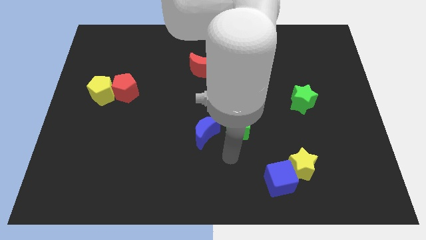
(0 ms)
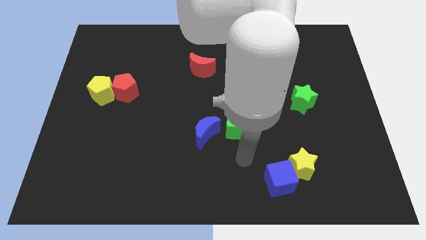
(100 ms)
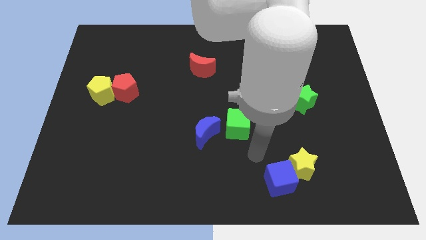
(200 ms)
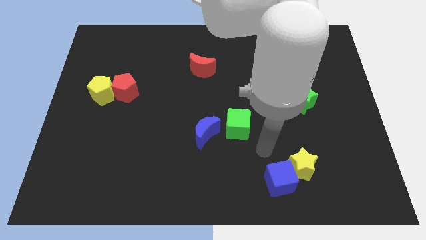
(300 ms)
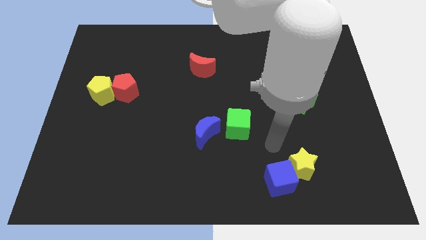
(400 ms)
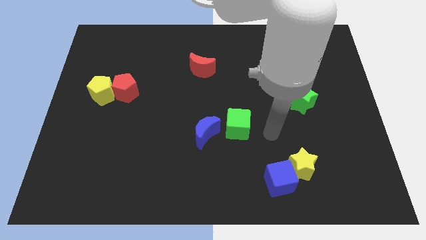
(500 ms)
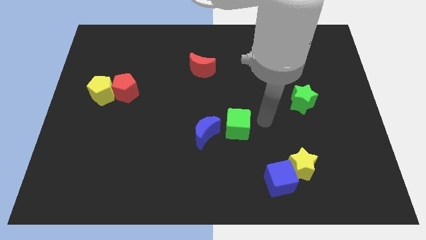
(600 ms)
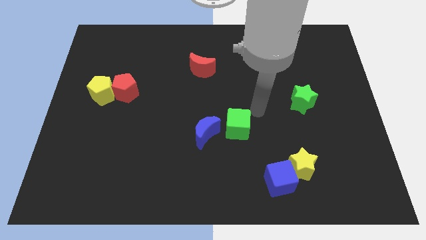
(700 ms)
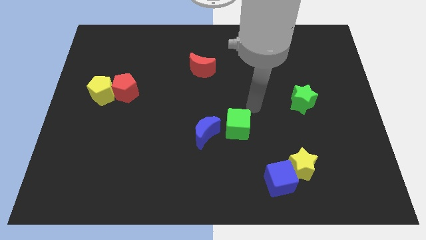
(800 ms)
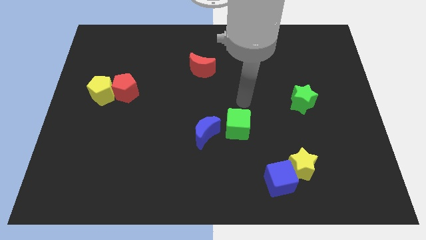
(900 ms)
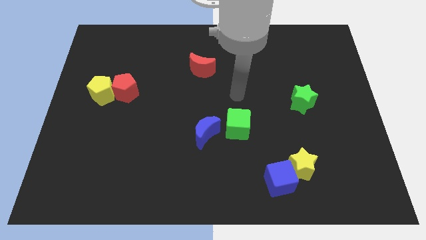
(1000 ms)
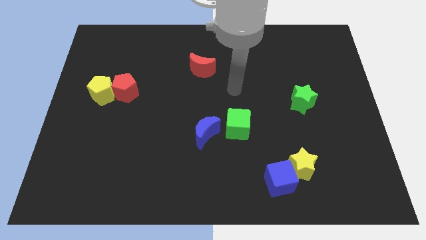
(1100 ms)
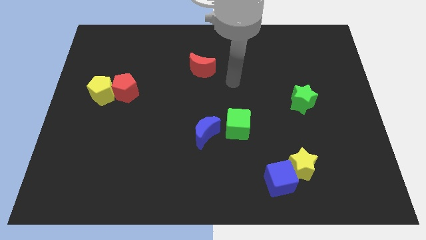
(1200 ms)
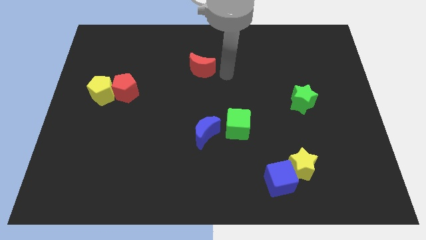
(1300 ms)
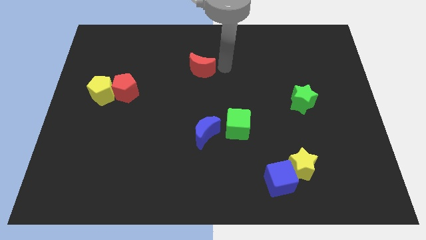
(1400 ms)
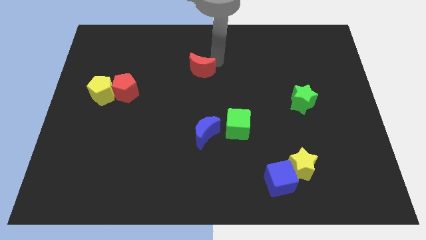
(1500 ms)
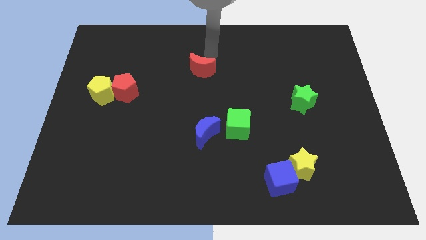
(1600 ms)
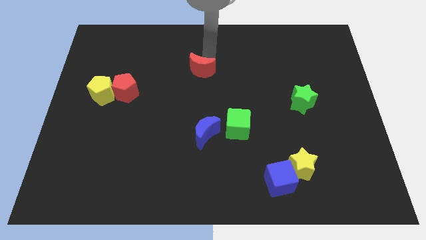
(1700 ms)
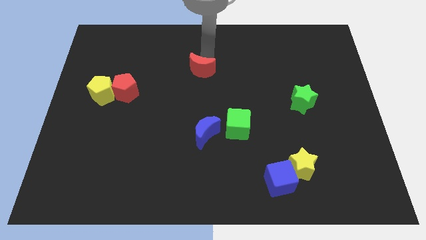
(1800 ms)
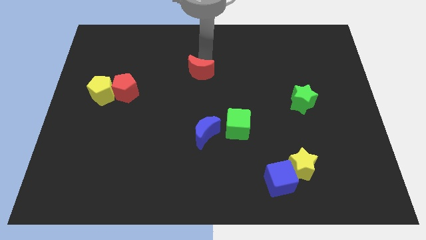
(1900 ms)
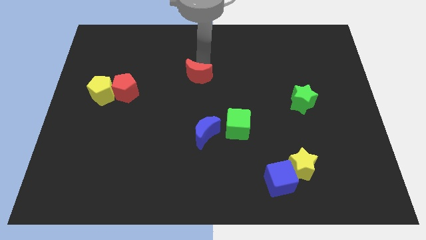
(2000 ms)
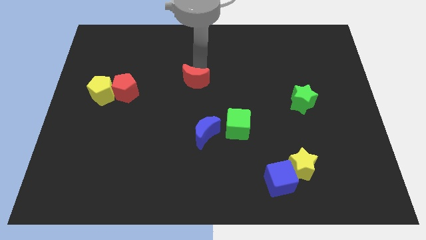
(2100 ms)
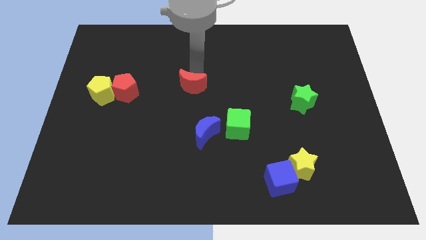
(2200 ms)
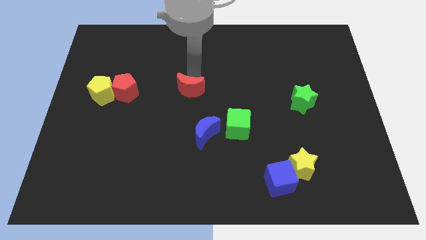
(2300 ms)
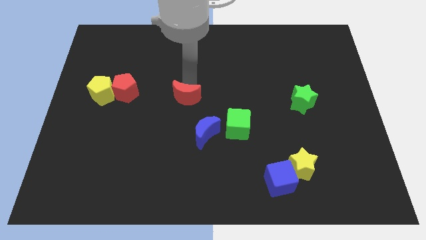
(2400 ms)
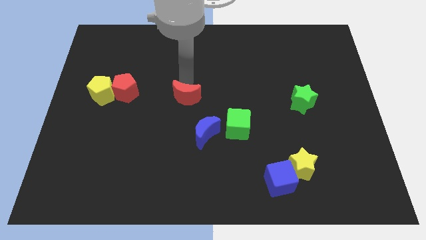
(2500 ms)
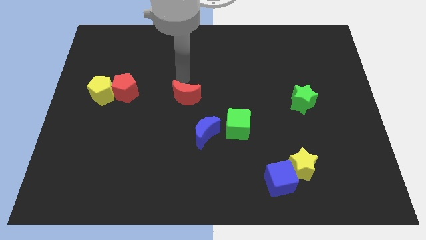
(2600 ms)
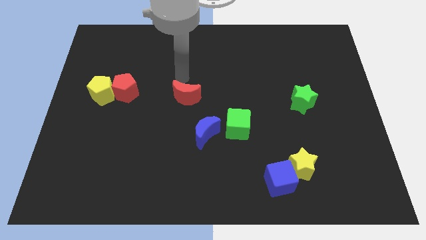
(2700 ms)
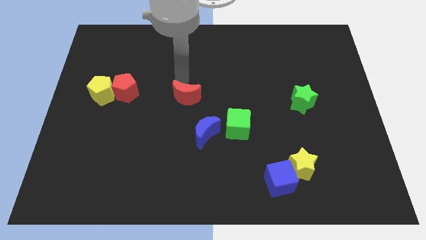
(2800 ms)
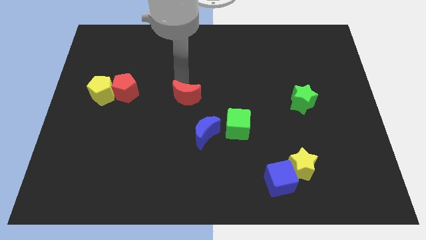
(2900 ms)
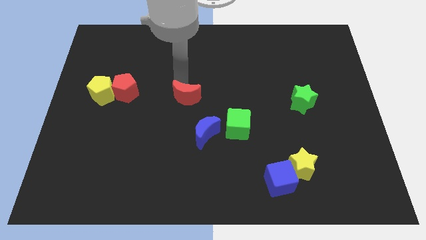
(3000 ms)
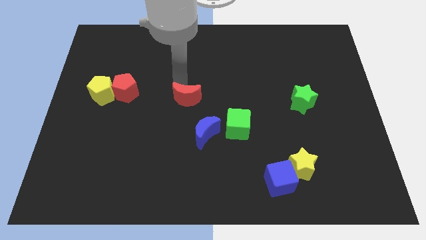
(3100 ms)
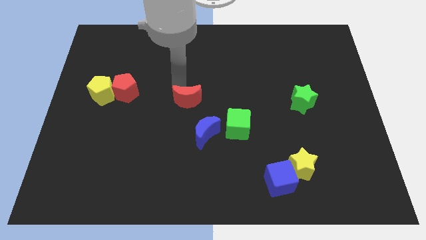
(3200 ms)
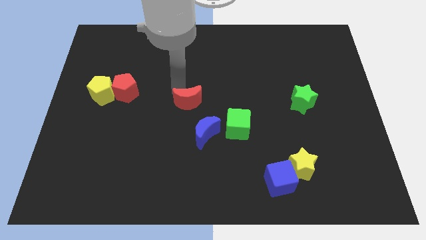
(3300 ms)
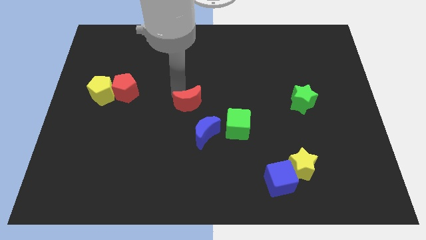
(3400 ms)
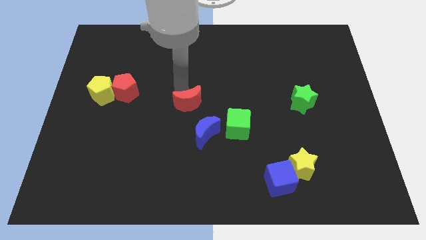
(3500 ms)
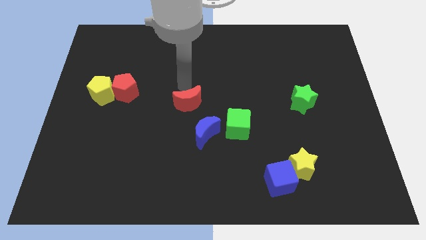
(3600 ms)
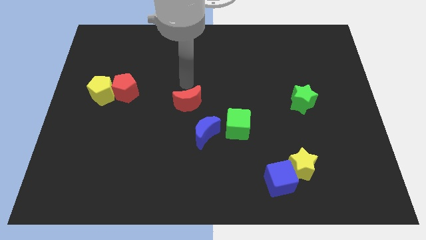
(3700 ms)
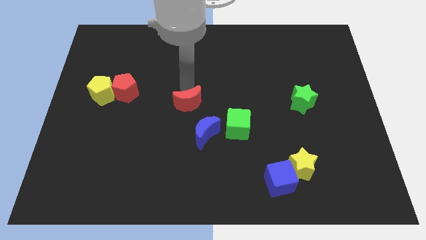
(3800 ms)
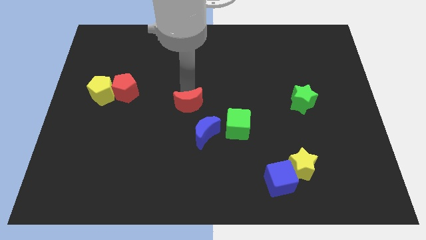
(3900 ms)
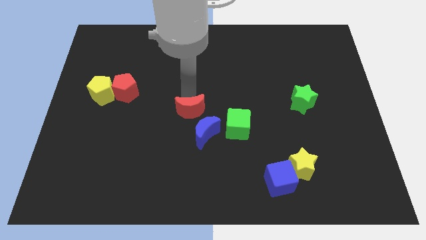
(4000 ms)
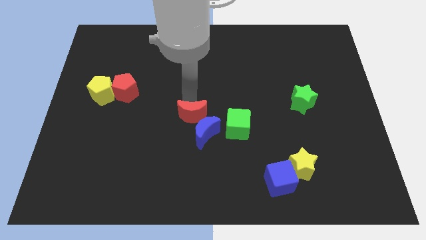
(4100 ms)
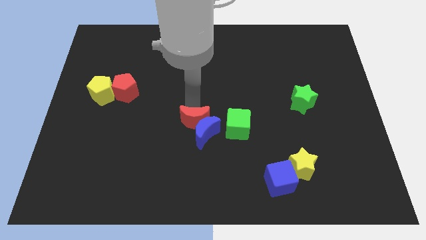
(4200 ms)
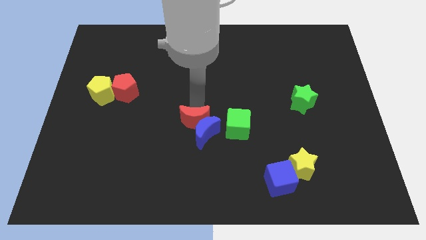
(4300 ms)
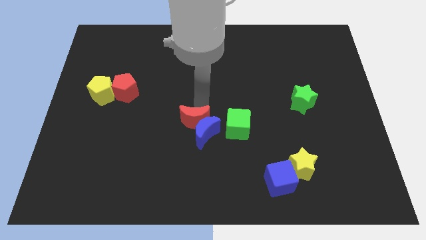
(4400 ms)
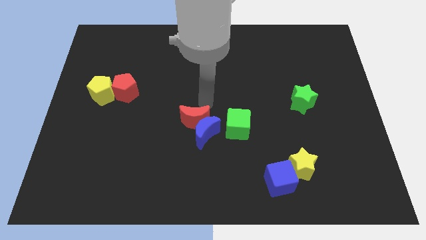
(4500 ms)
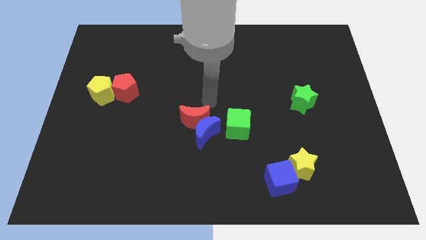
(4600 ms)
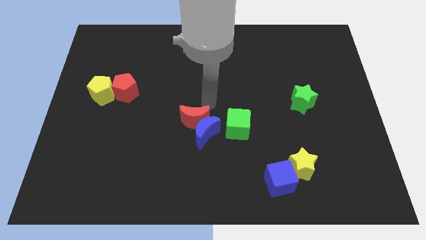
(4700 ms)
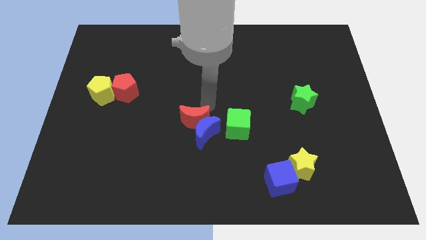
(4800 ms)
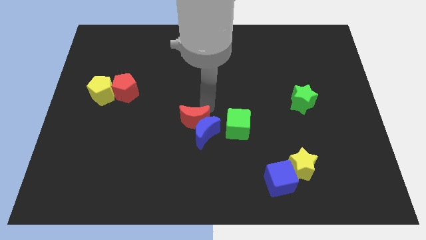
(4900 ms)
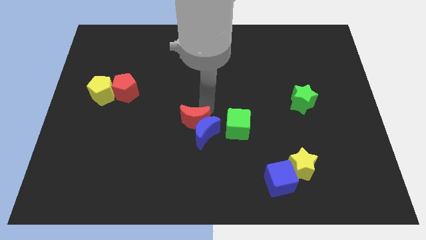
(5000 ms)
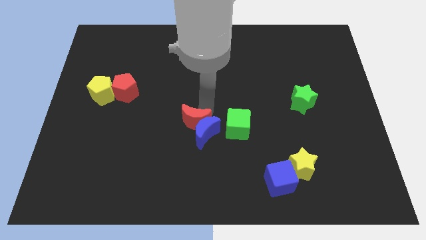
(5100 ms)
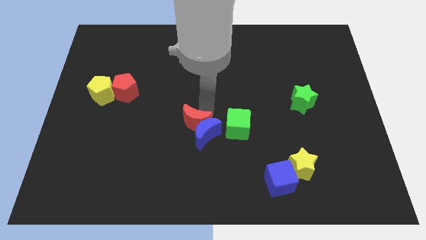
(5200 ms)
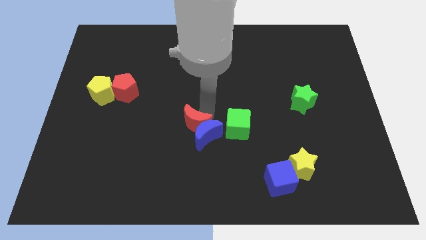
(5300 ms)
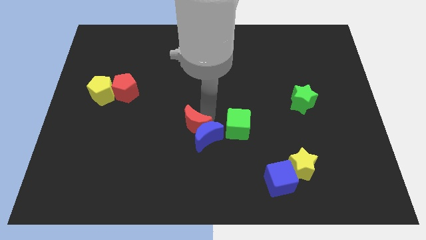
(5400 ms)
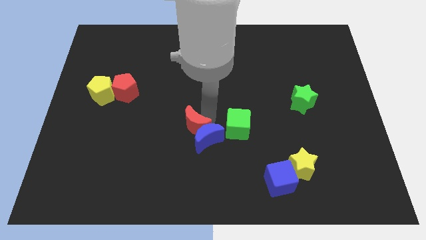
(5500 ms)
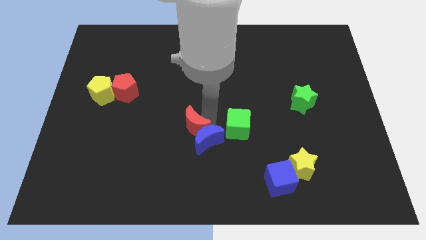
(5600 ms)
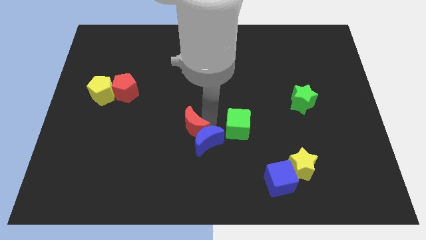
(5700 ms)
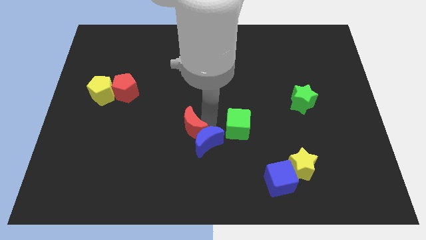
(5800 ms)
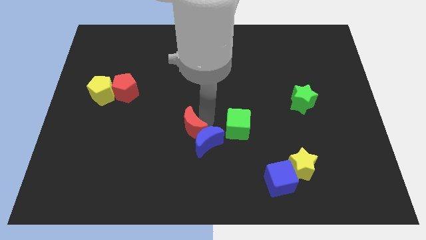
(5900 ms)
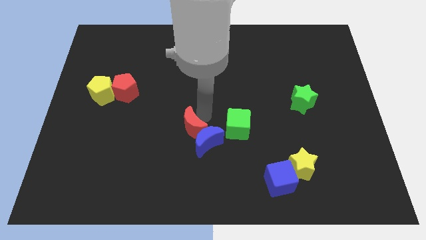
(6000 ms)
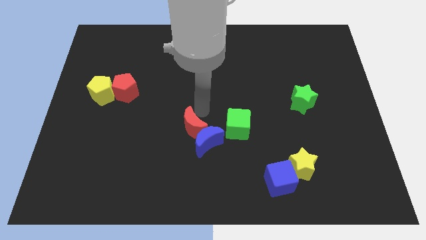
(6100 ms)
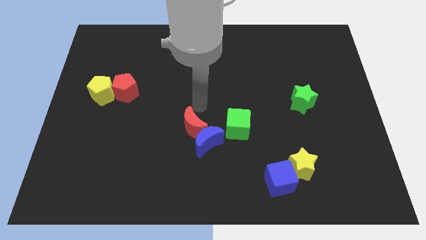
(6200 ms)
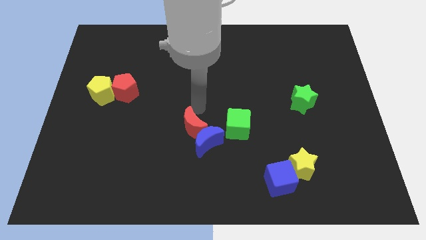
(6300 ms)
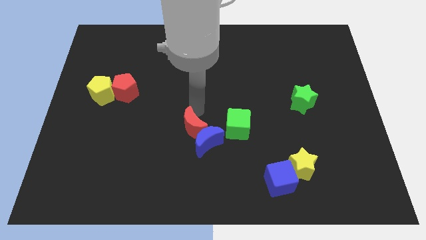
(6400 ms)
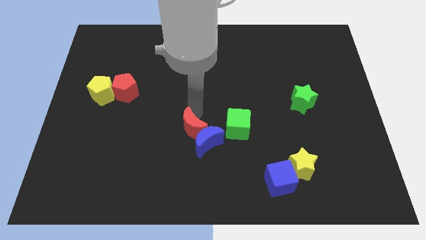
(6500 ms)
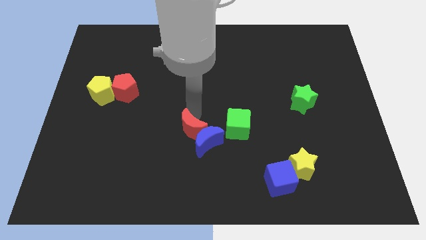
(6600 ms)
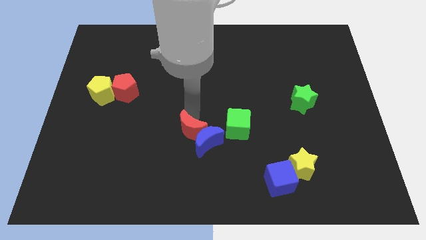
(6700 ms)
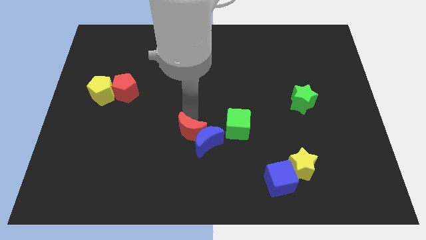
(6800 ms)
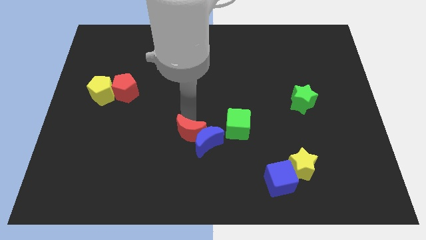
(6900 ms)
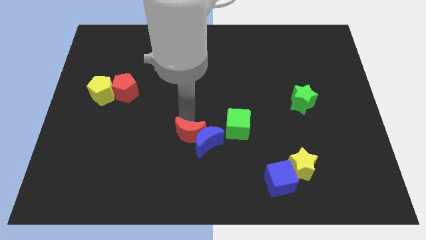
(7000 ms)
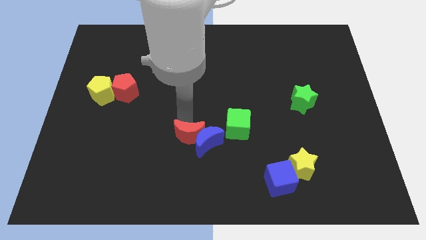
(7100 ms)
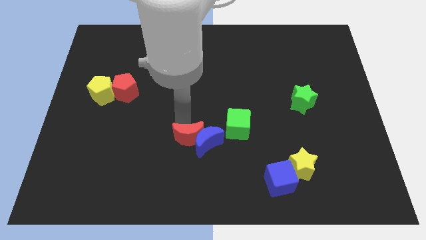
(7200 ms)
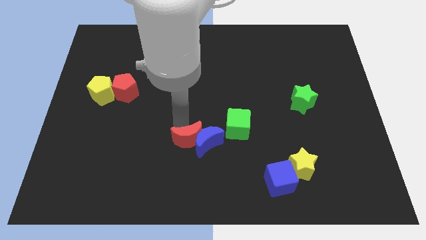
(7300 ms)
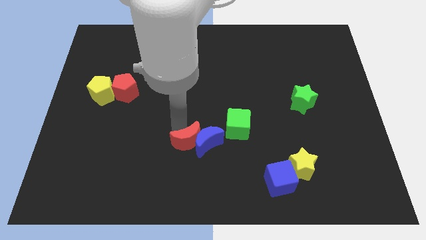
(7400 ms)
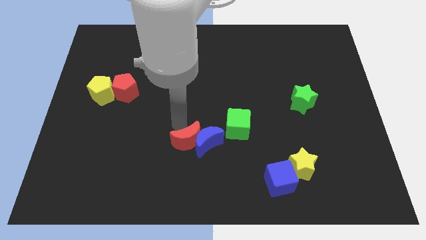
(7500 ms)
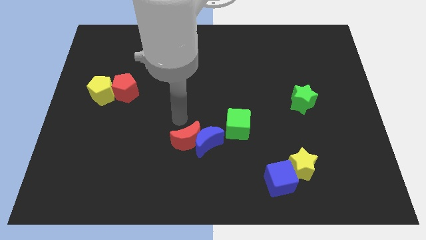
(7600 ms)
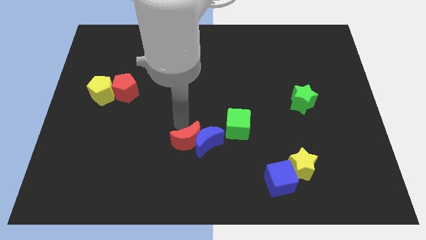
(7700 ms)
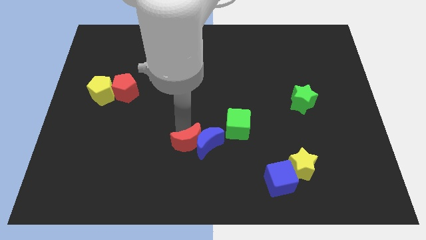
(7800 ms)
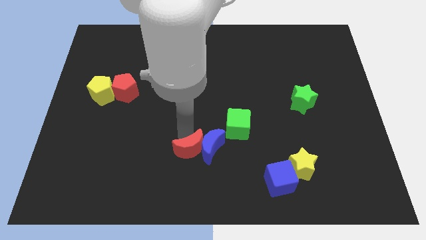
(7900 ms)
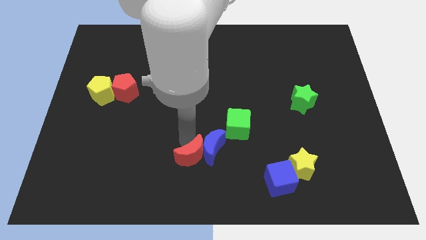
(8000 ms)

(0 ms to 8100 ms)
slide the red moon to the bottom
